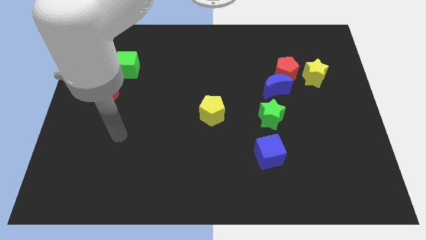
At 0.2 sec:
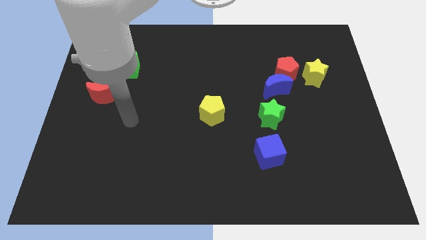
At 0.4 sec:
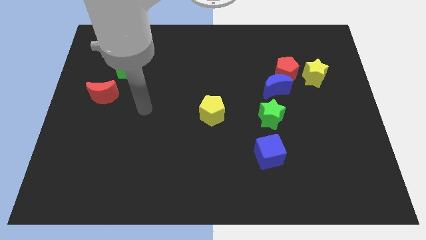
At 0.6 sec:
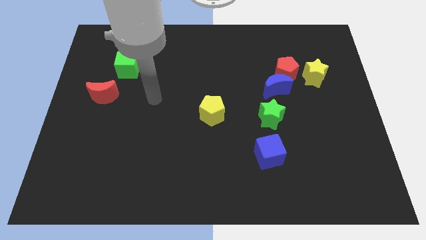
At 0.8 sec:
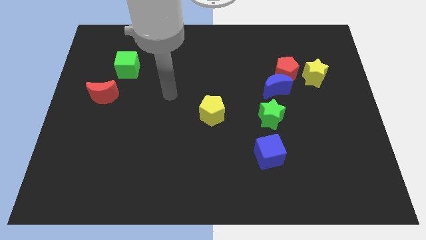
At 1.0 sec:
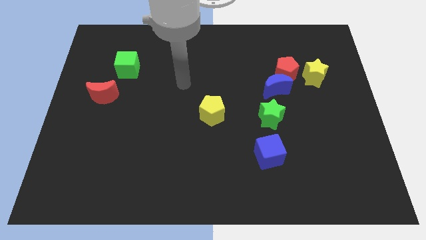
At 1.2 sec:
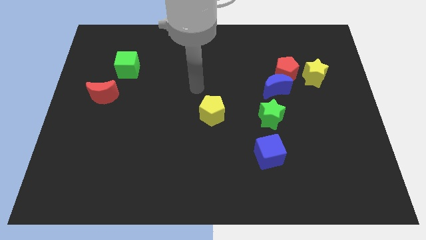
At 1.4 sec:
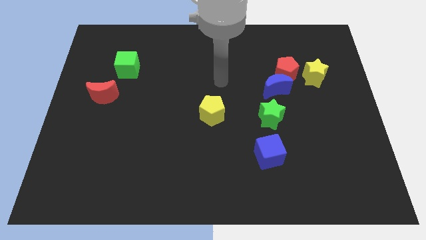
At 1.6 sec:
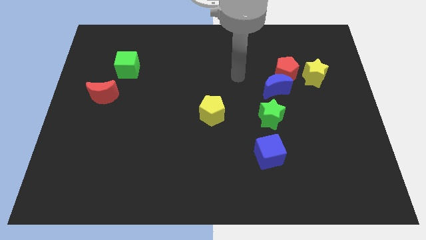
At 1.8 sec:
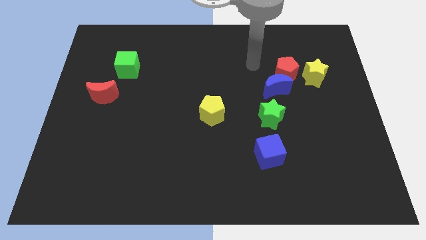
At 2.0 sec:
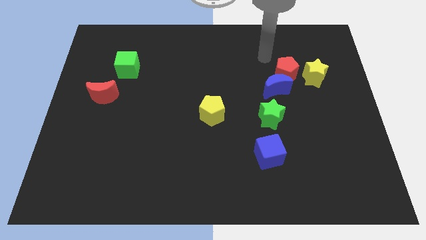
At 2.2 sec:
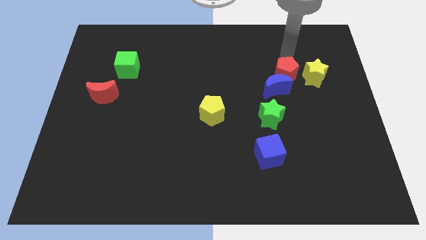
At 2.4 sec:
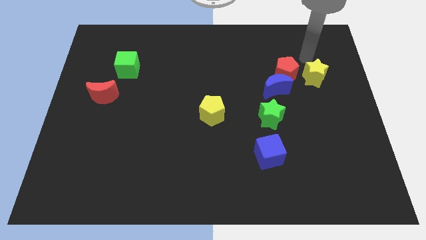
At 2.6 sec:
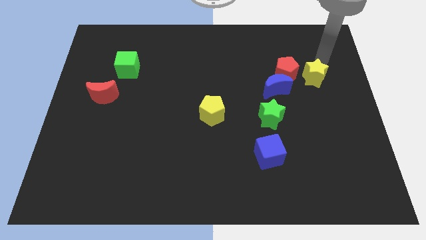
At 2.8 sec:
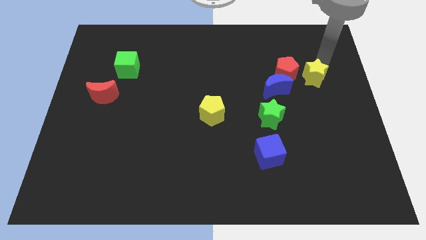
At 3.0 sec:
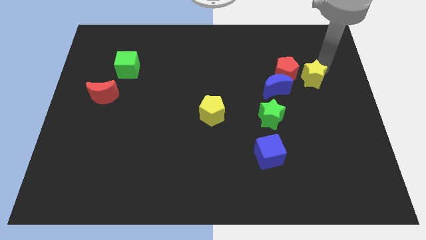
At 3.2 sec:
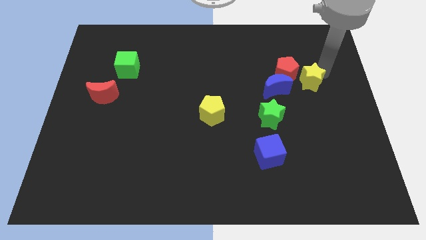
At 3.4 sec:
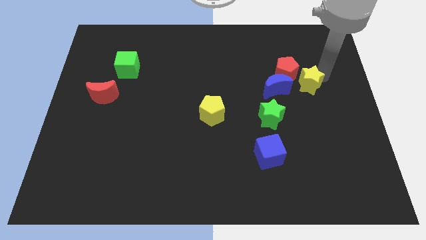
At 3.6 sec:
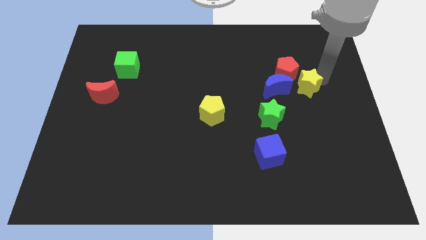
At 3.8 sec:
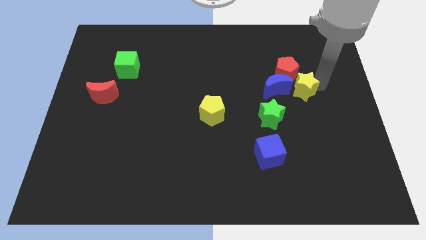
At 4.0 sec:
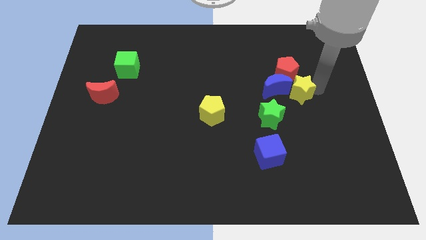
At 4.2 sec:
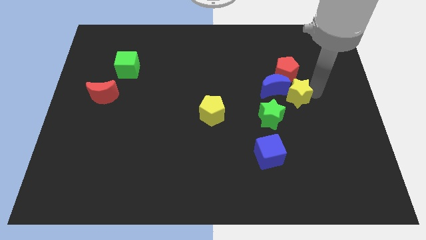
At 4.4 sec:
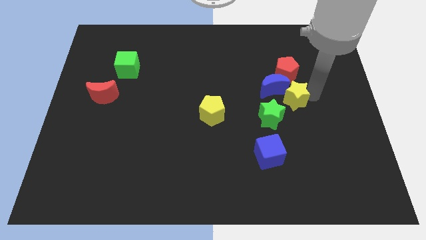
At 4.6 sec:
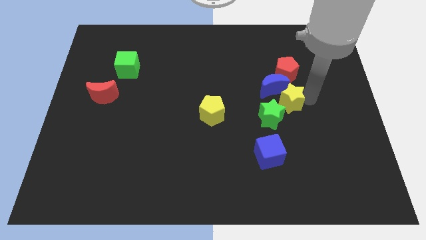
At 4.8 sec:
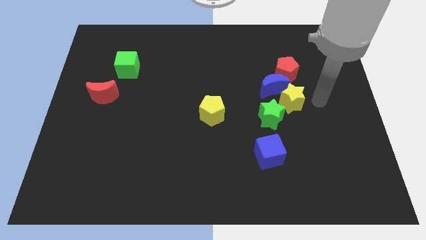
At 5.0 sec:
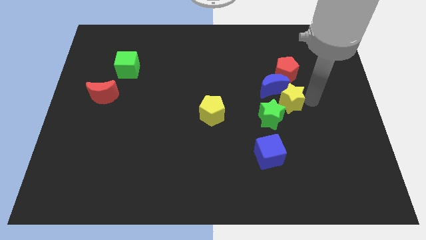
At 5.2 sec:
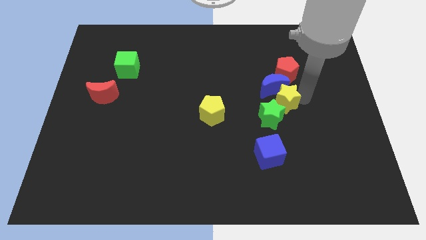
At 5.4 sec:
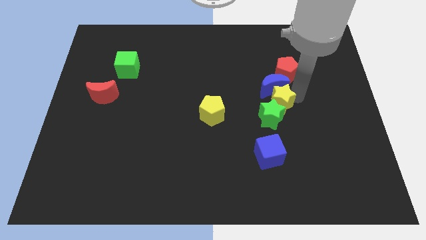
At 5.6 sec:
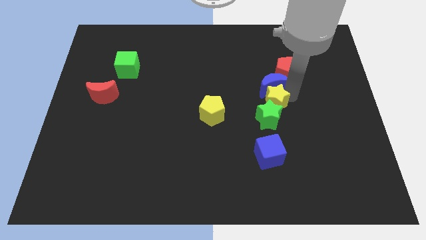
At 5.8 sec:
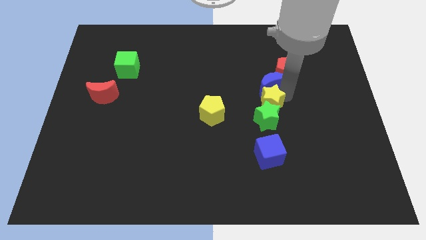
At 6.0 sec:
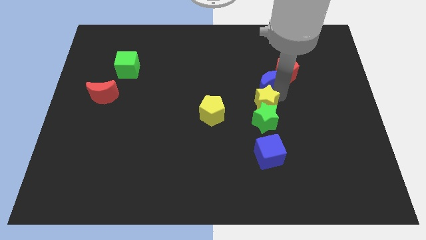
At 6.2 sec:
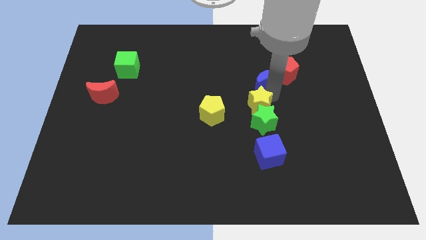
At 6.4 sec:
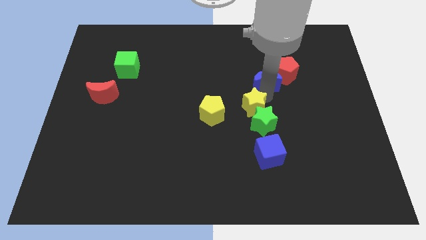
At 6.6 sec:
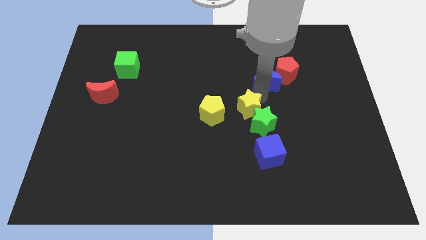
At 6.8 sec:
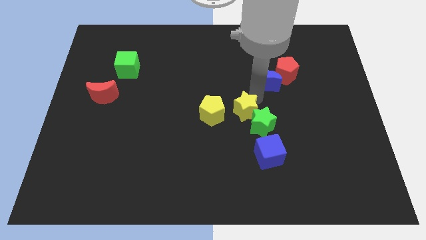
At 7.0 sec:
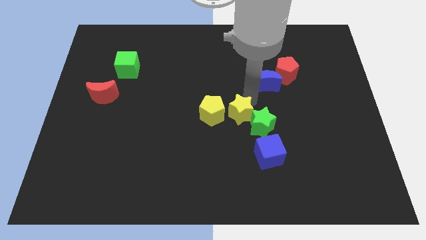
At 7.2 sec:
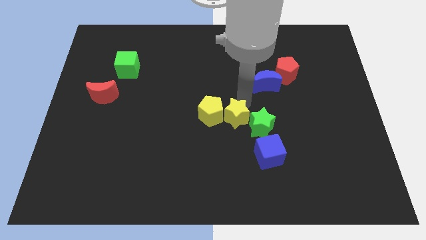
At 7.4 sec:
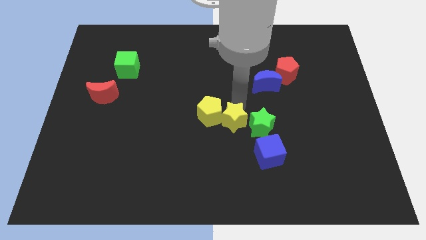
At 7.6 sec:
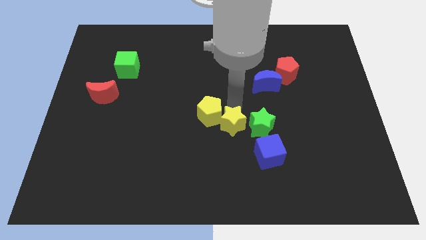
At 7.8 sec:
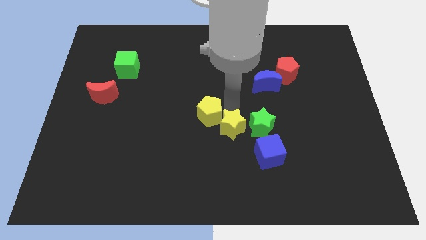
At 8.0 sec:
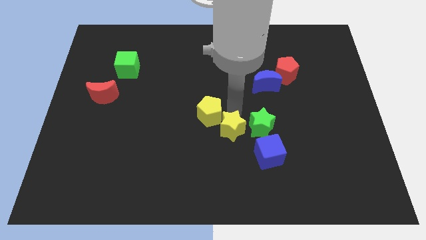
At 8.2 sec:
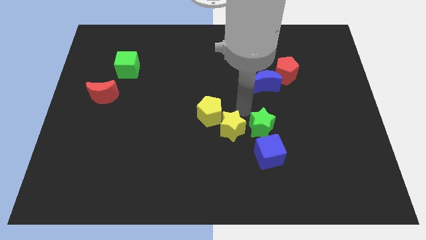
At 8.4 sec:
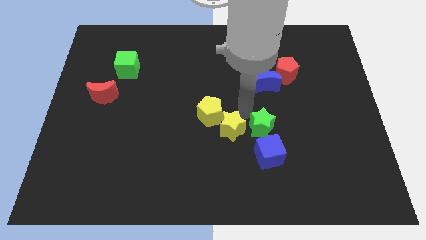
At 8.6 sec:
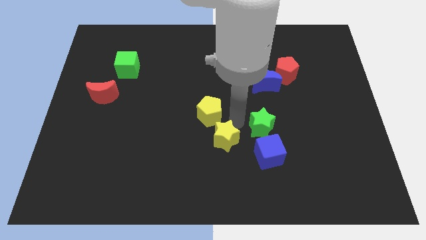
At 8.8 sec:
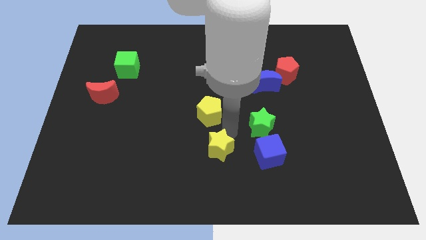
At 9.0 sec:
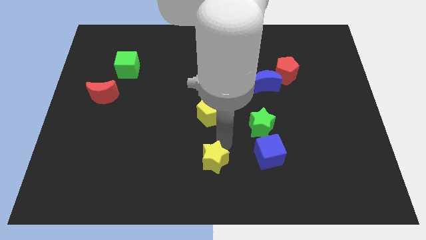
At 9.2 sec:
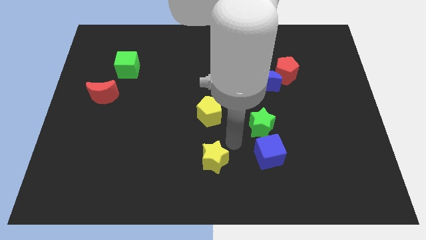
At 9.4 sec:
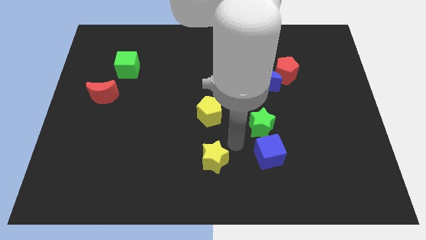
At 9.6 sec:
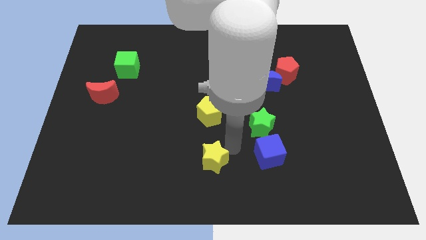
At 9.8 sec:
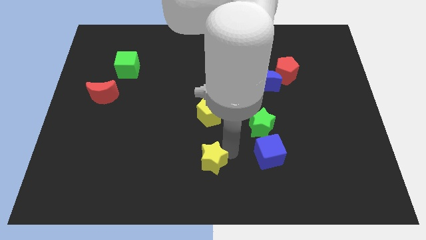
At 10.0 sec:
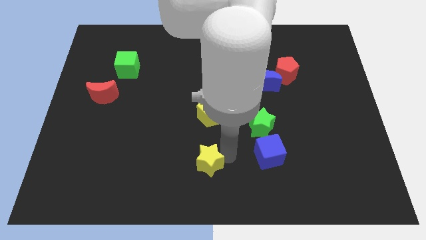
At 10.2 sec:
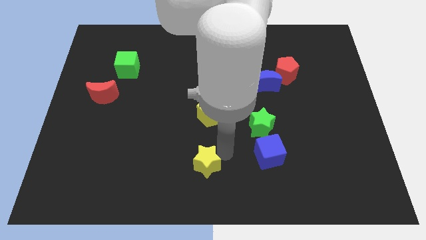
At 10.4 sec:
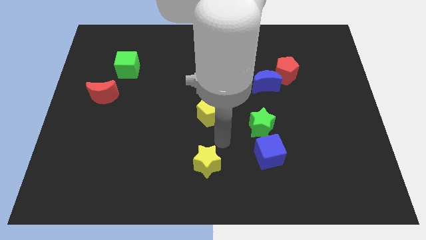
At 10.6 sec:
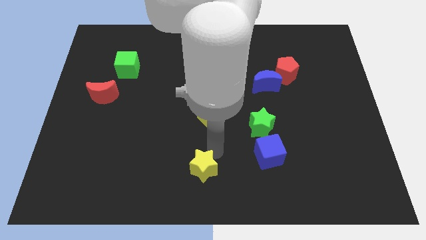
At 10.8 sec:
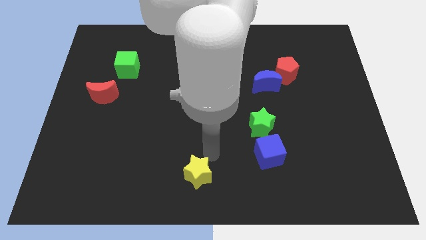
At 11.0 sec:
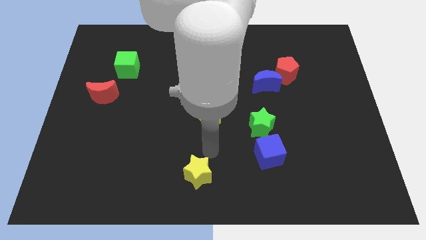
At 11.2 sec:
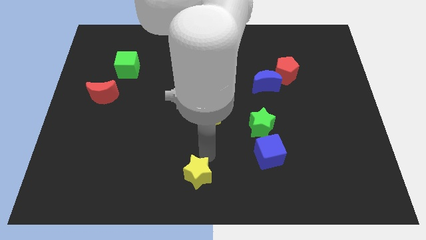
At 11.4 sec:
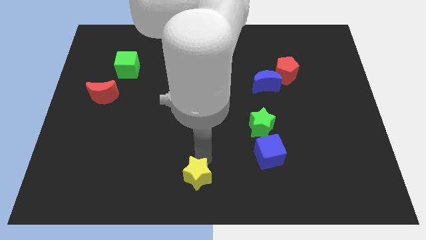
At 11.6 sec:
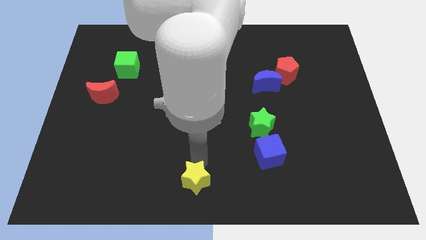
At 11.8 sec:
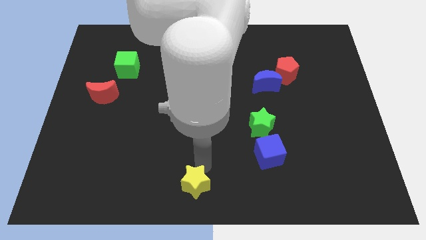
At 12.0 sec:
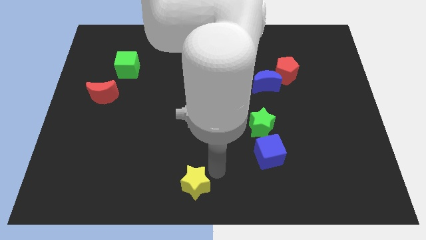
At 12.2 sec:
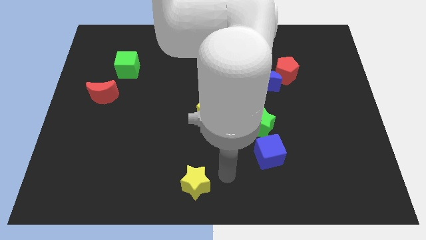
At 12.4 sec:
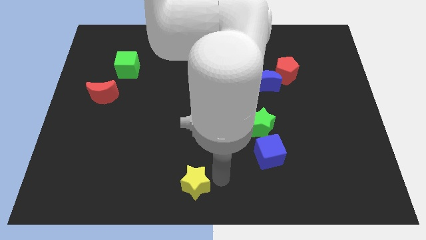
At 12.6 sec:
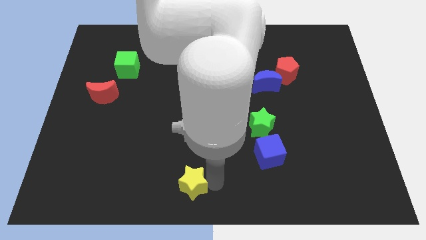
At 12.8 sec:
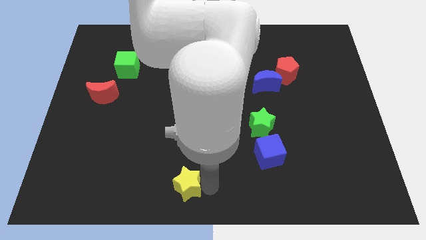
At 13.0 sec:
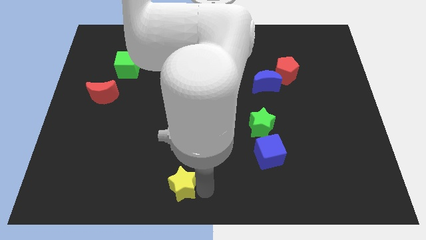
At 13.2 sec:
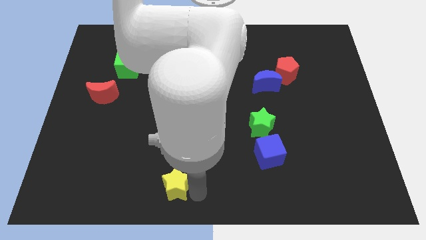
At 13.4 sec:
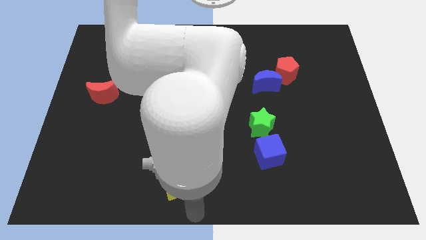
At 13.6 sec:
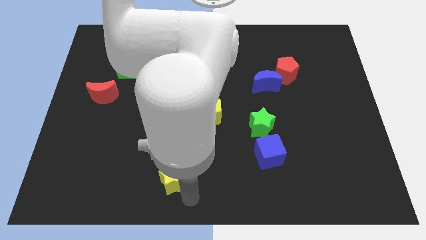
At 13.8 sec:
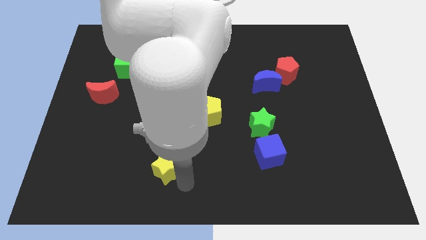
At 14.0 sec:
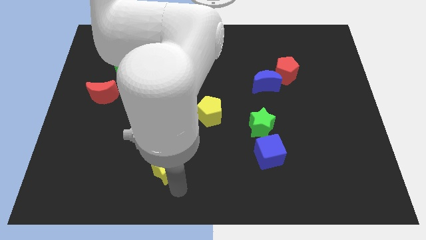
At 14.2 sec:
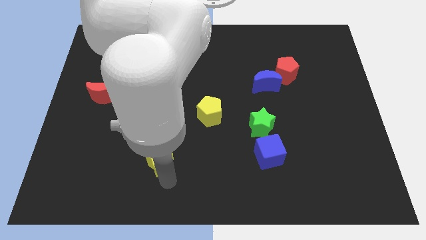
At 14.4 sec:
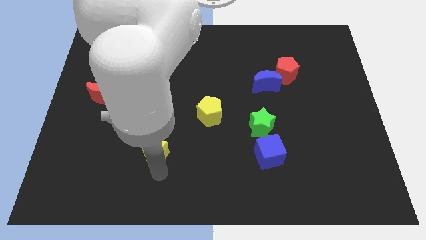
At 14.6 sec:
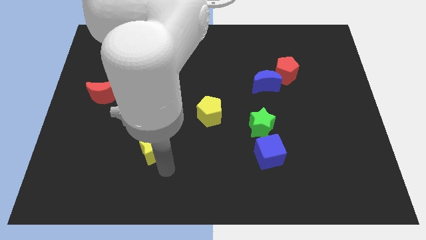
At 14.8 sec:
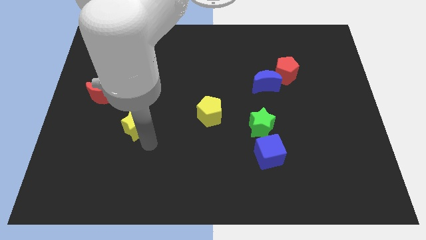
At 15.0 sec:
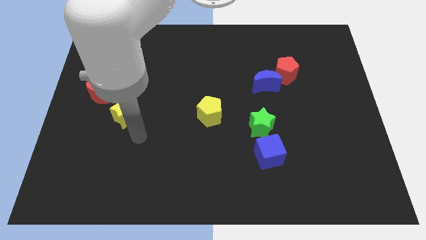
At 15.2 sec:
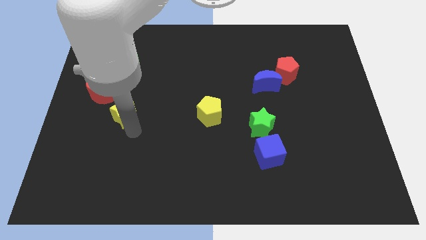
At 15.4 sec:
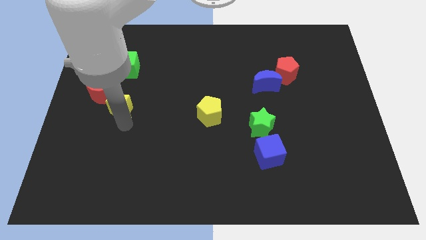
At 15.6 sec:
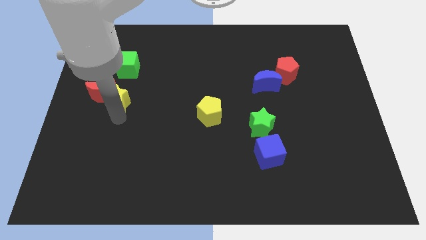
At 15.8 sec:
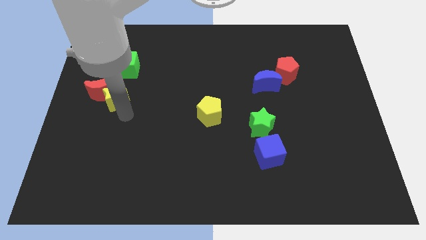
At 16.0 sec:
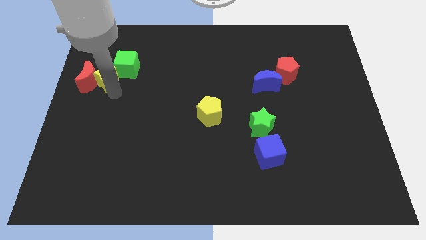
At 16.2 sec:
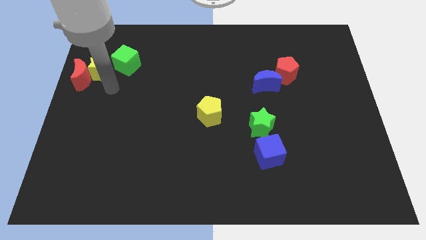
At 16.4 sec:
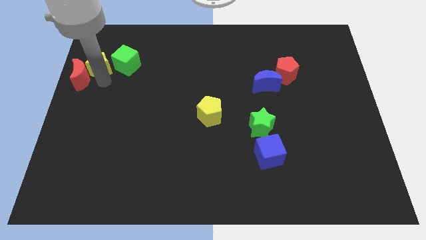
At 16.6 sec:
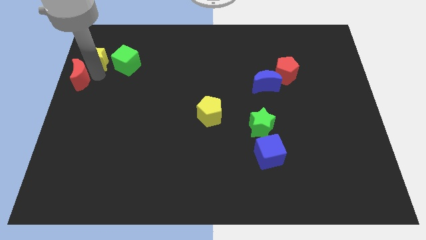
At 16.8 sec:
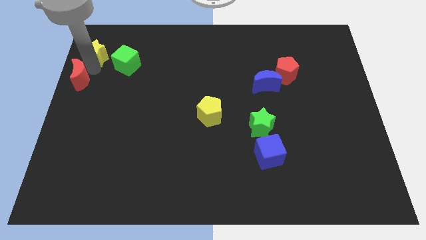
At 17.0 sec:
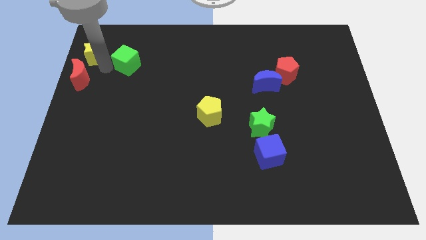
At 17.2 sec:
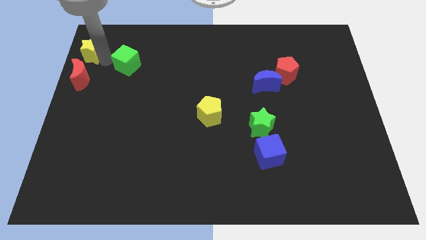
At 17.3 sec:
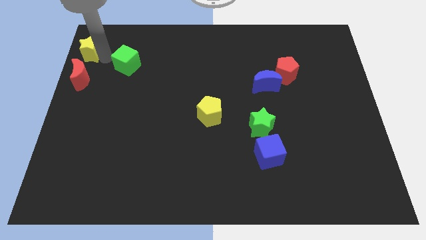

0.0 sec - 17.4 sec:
push the yellow star to the upper left corner
